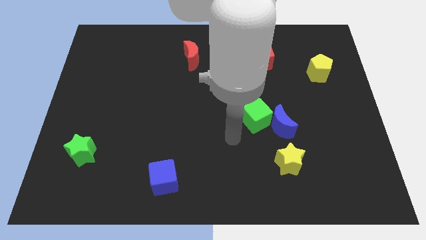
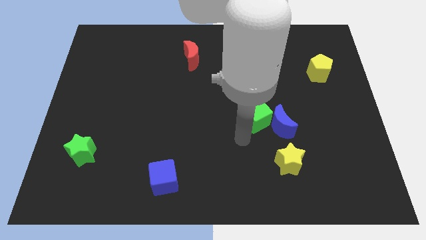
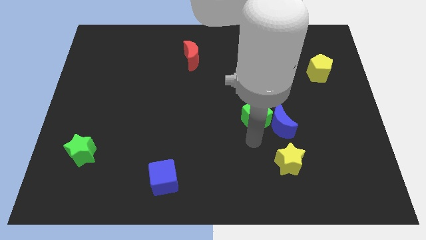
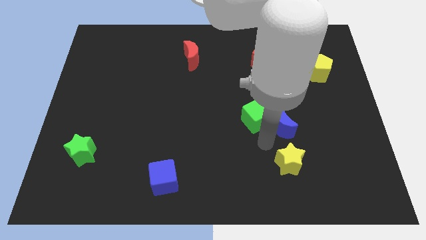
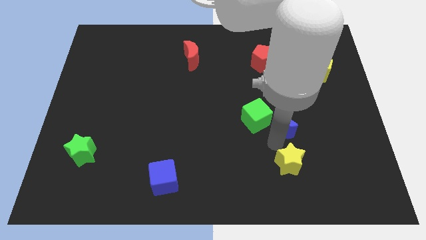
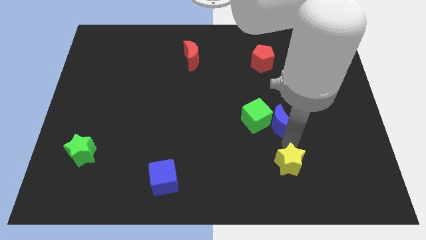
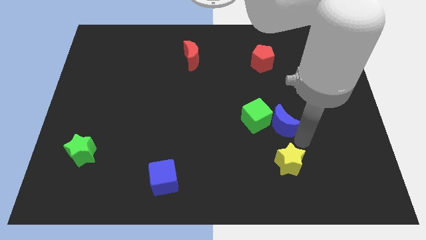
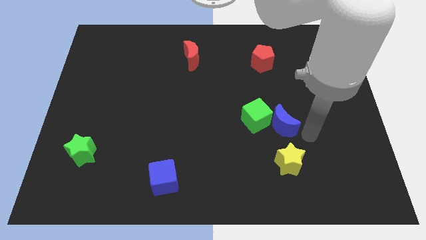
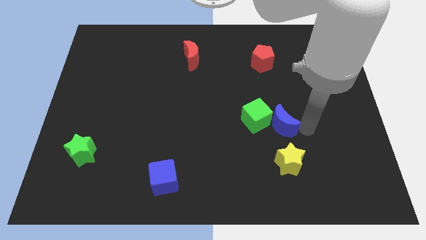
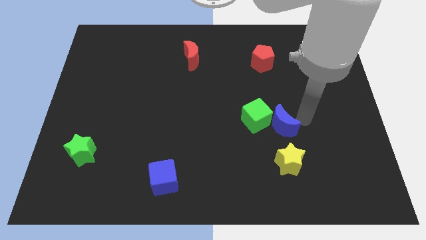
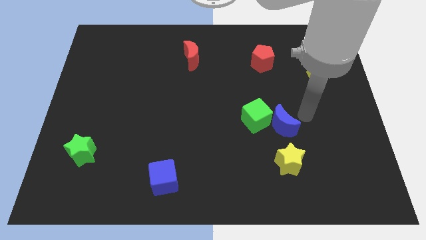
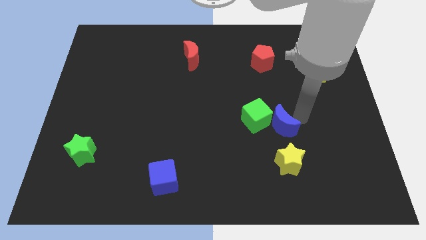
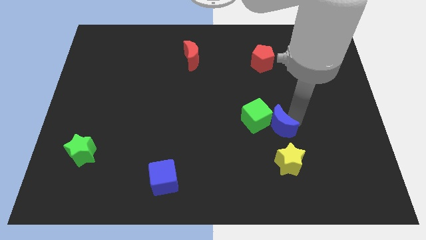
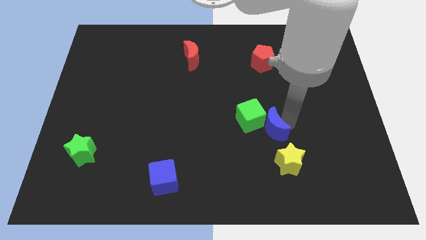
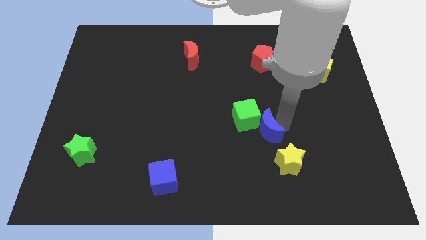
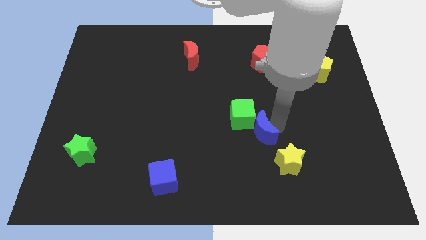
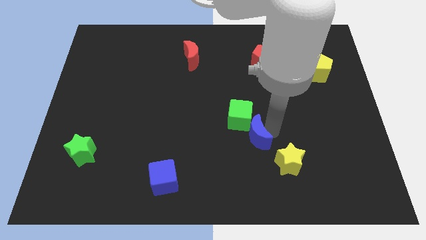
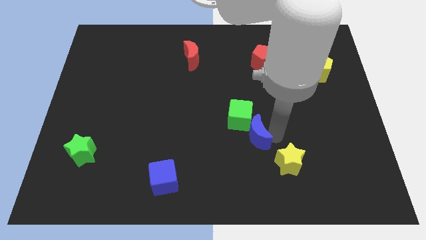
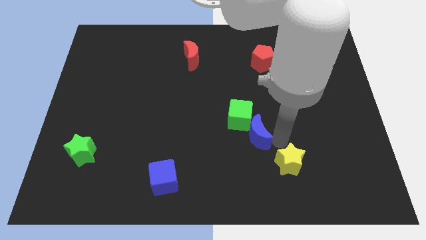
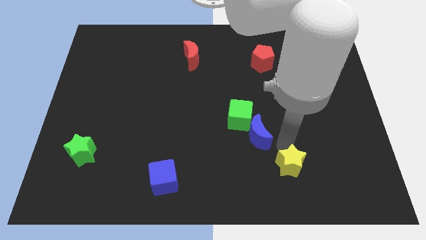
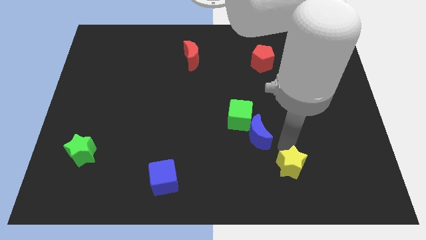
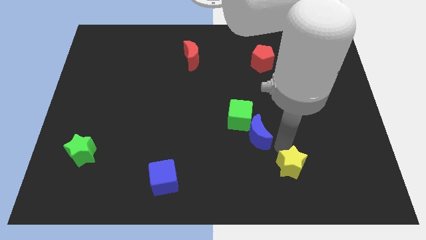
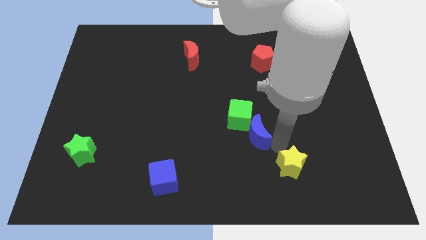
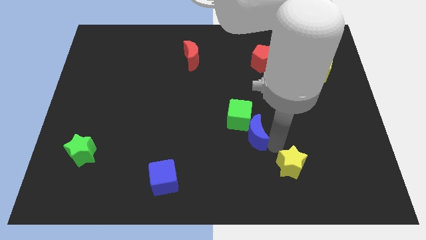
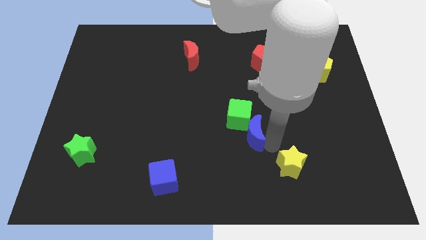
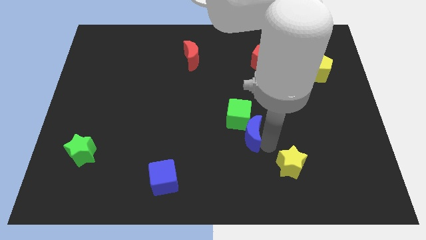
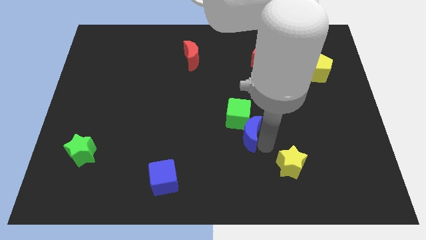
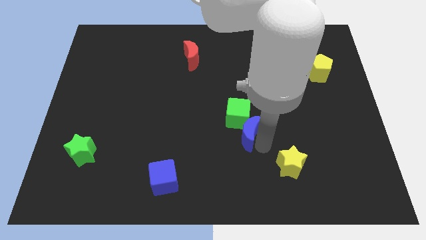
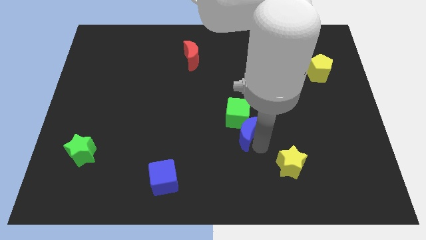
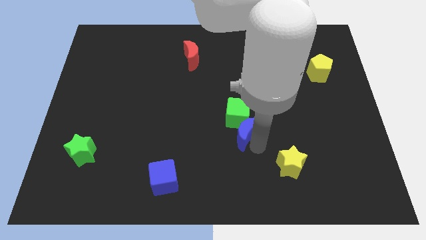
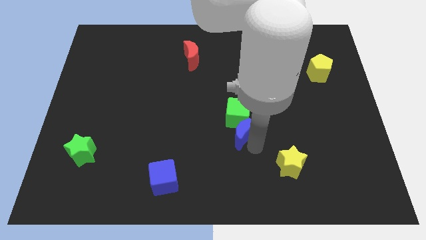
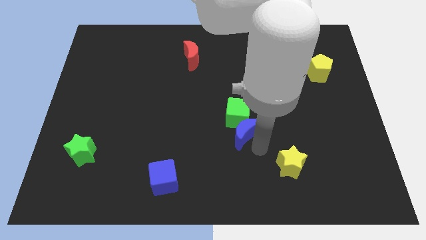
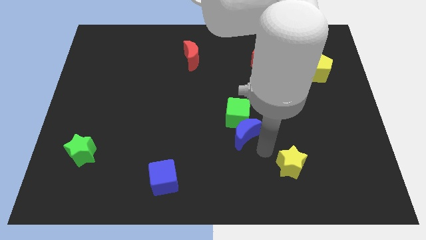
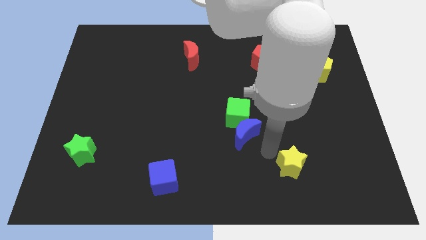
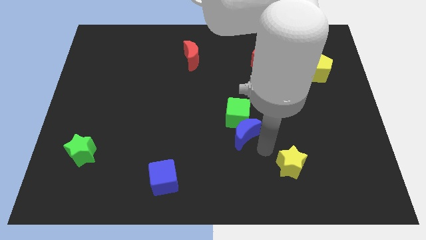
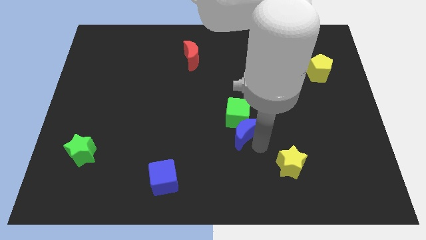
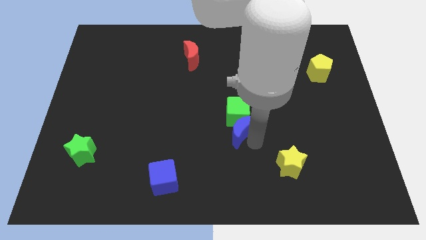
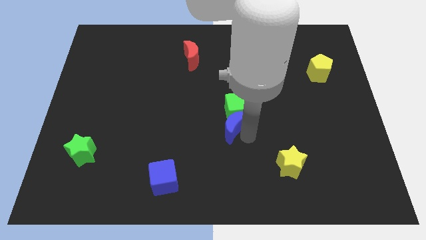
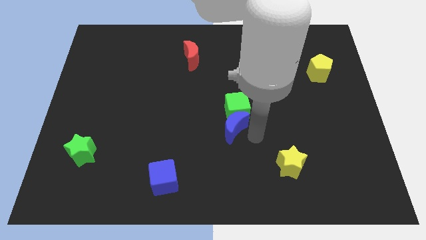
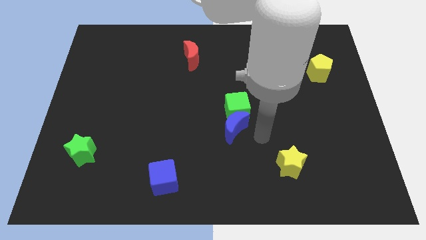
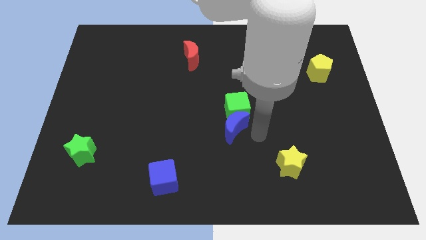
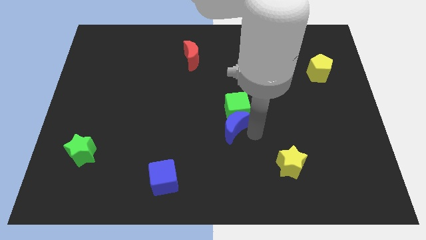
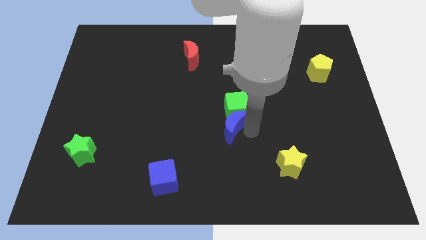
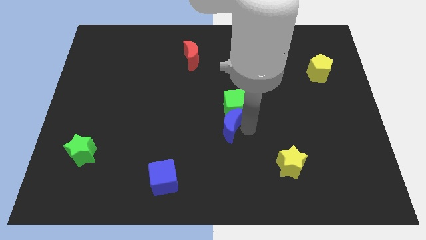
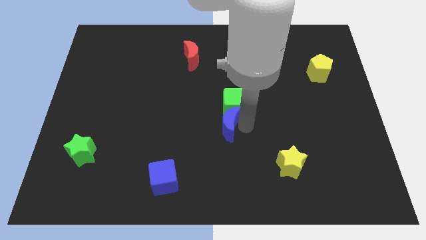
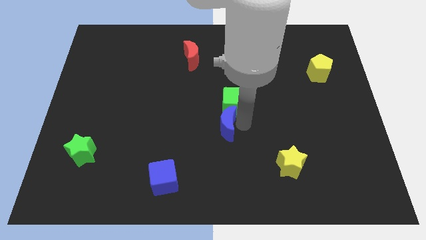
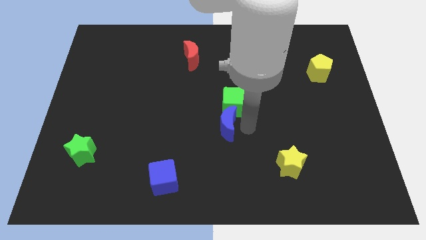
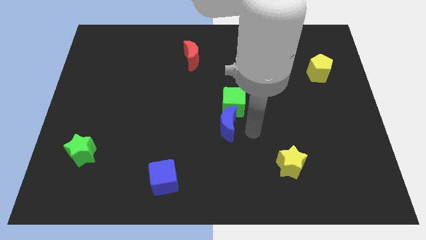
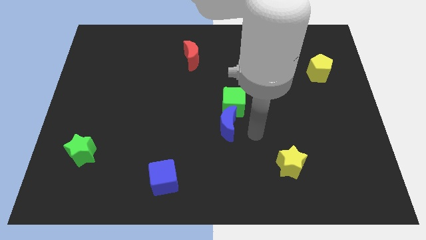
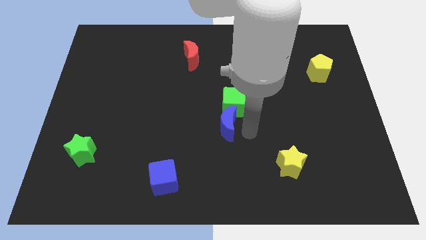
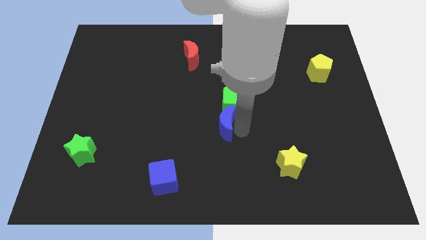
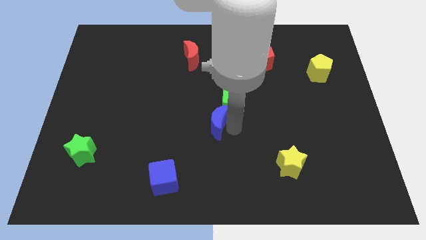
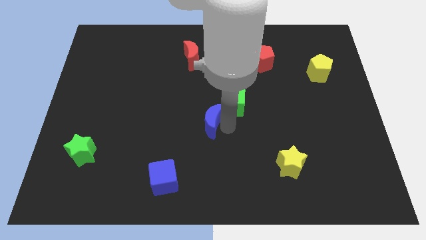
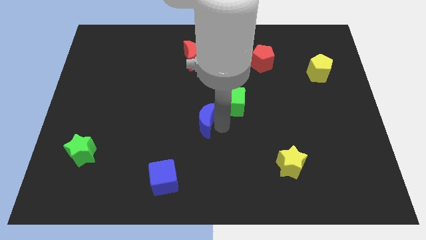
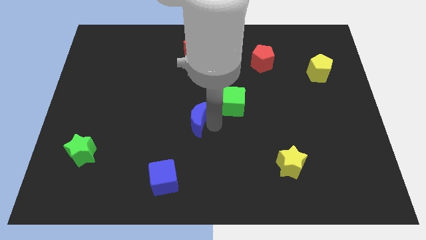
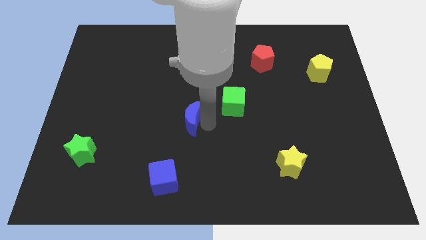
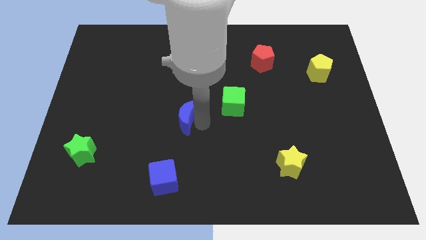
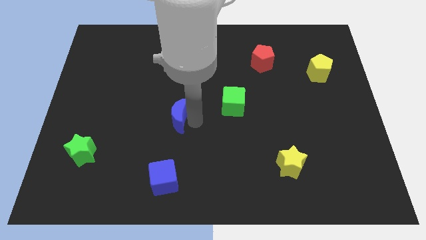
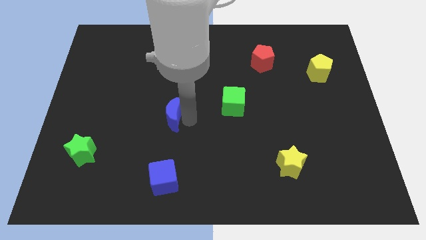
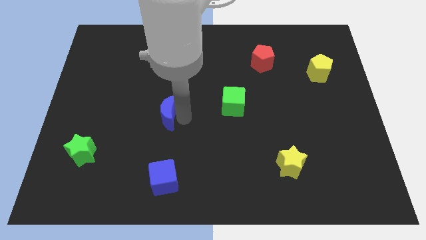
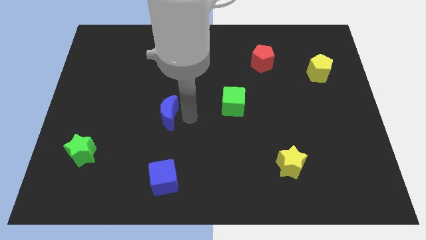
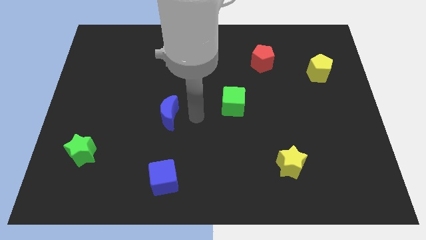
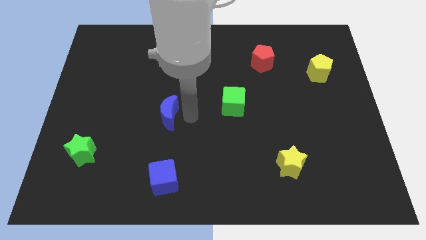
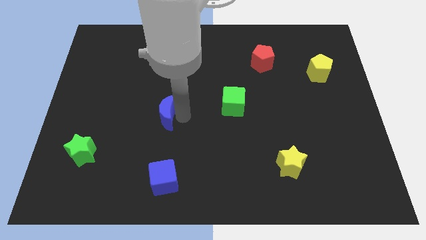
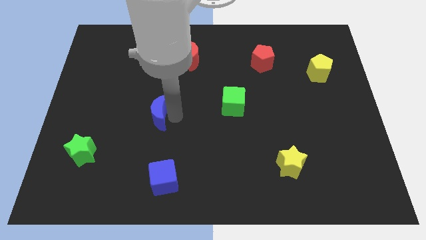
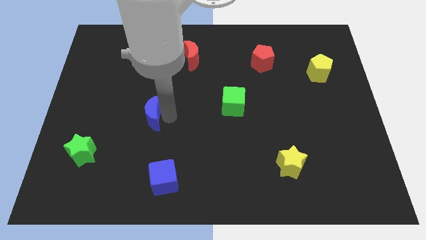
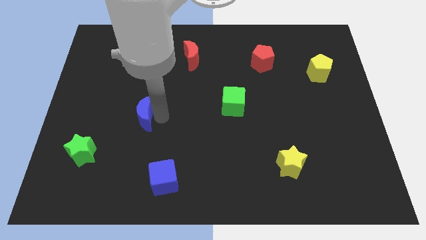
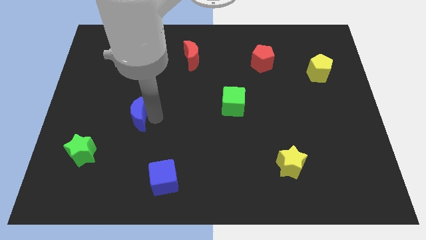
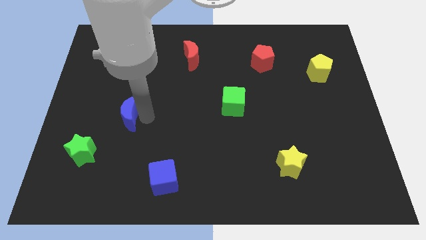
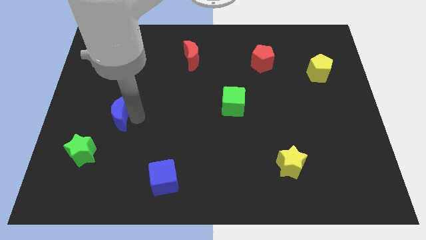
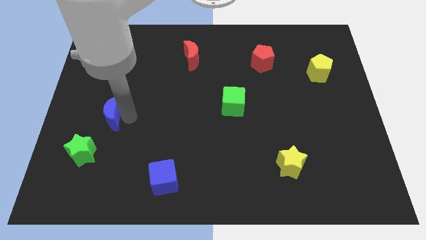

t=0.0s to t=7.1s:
put the blue moon to the top of the green star
